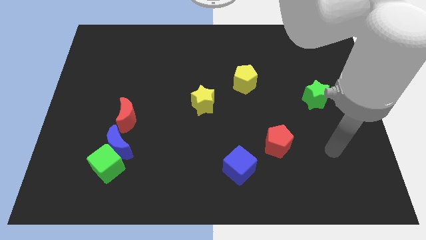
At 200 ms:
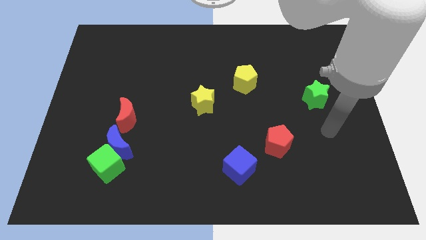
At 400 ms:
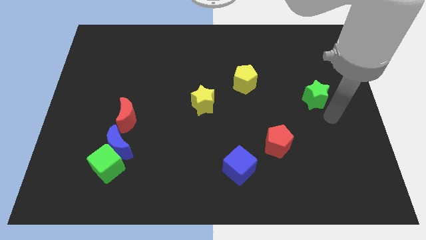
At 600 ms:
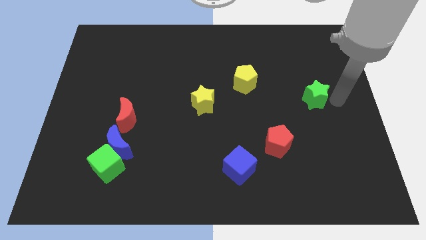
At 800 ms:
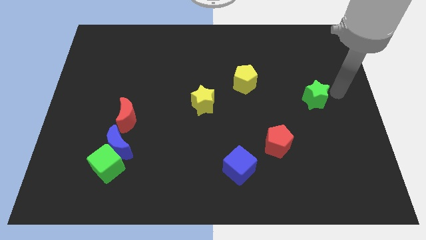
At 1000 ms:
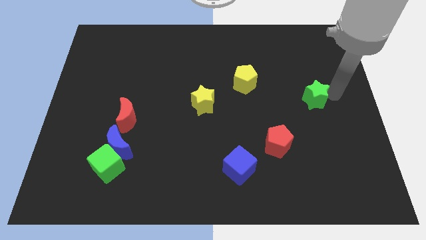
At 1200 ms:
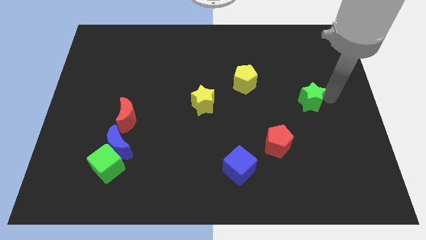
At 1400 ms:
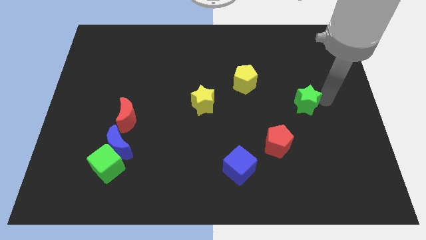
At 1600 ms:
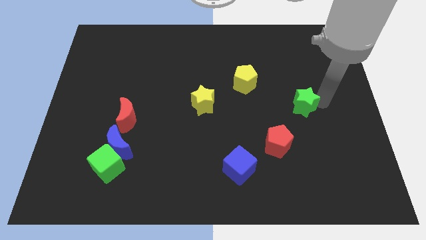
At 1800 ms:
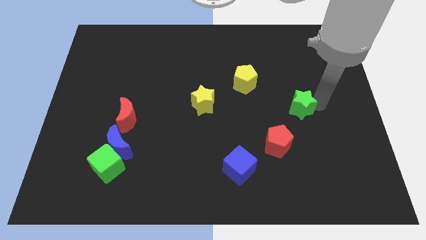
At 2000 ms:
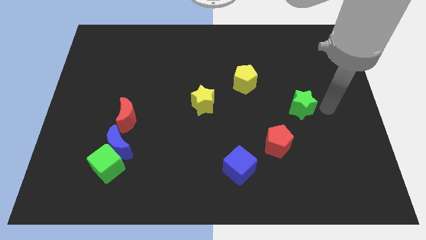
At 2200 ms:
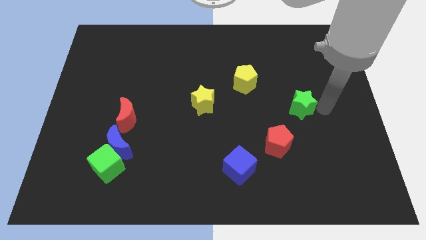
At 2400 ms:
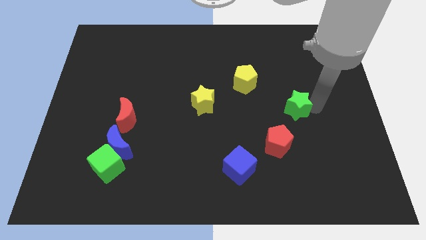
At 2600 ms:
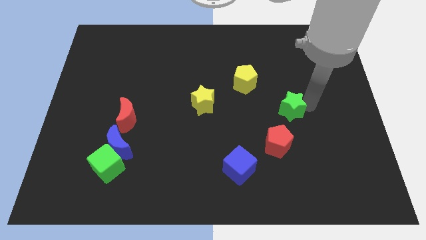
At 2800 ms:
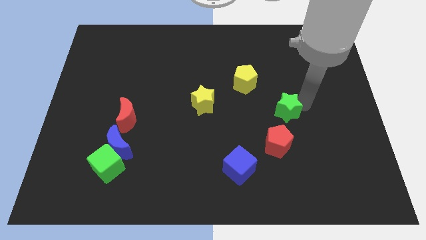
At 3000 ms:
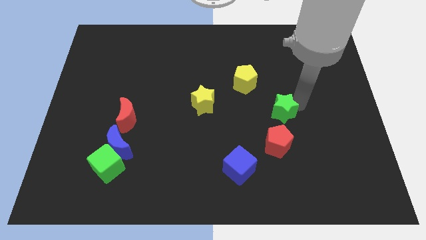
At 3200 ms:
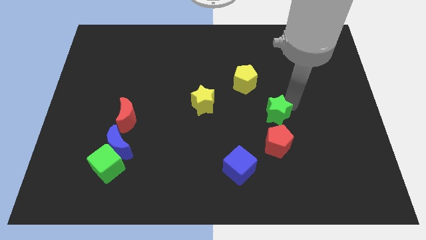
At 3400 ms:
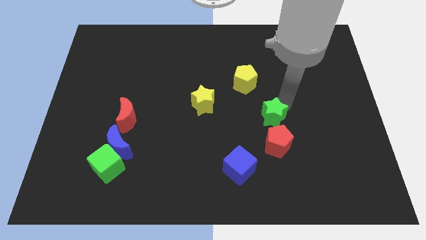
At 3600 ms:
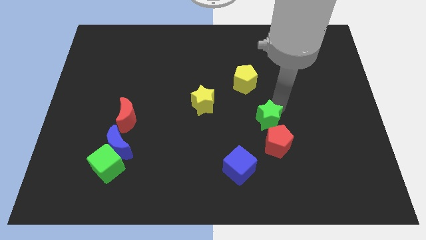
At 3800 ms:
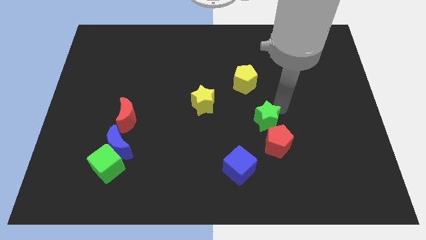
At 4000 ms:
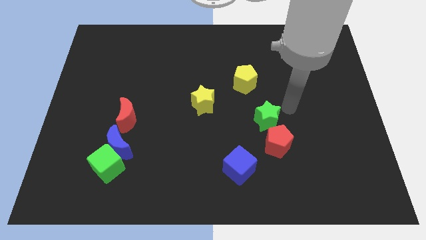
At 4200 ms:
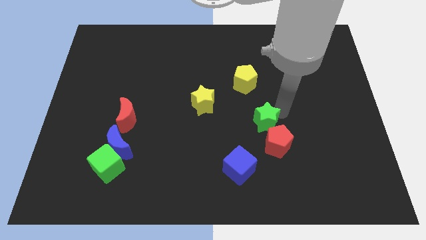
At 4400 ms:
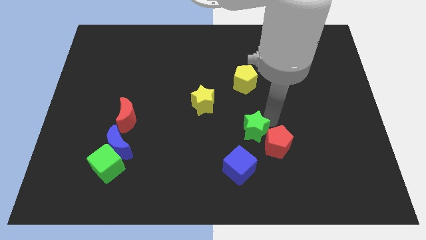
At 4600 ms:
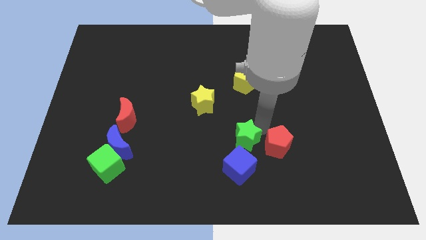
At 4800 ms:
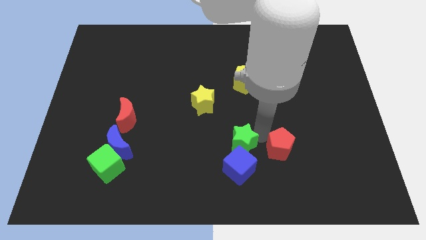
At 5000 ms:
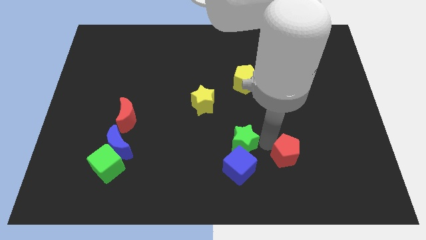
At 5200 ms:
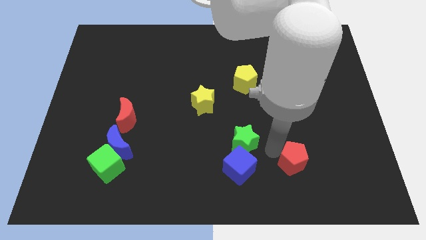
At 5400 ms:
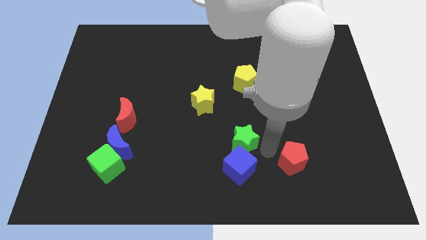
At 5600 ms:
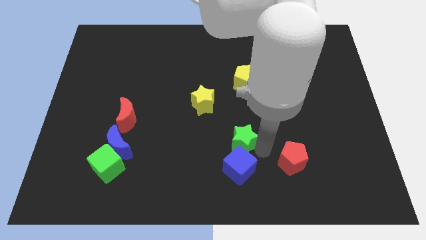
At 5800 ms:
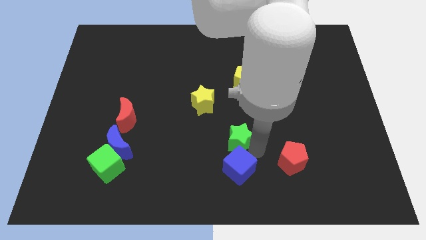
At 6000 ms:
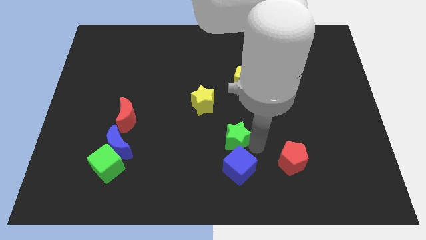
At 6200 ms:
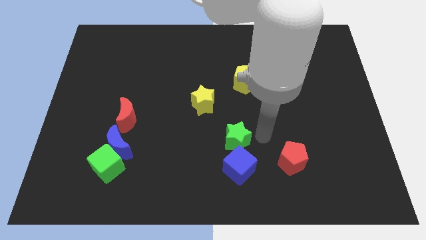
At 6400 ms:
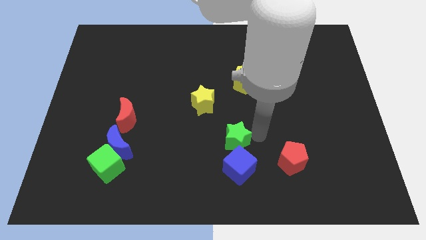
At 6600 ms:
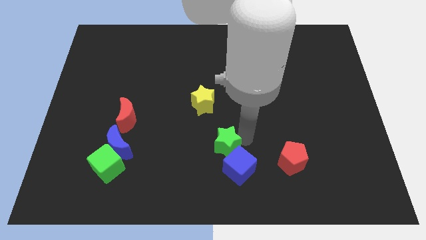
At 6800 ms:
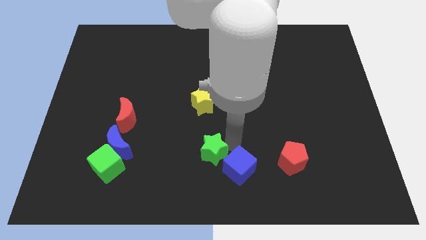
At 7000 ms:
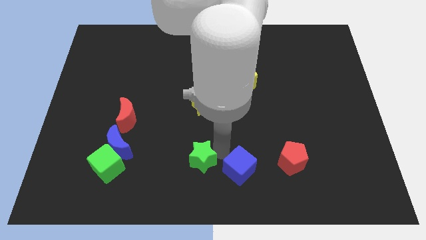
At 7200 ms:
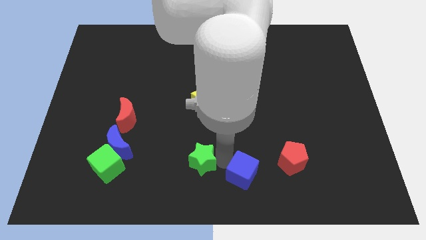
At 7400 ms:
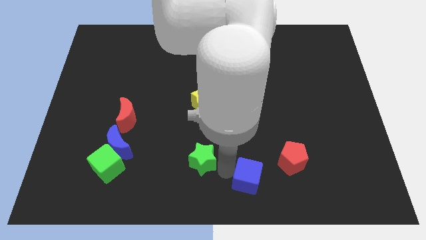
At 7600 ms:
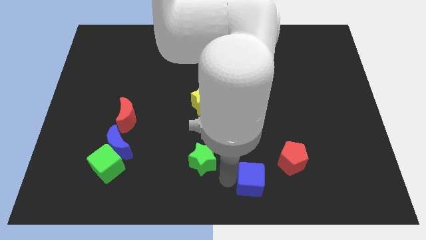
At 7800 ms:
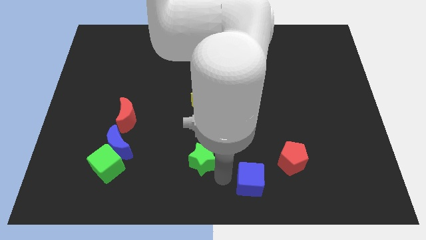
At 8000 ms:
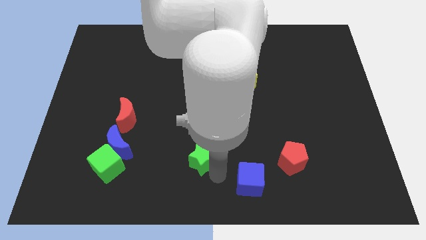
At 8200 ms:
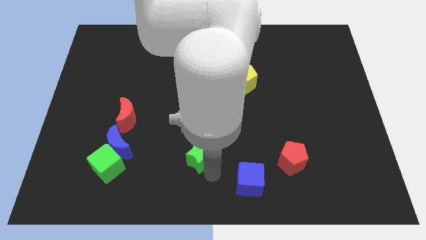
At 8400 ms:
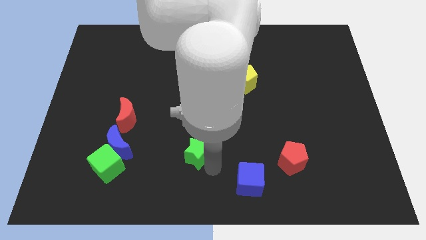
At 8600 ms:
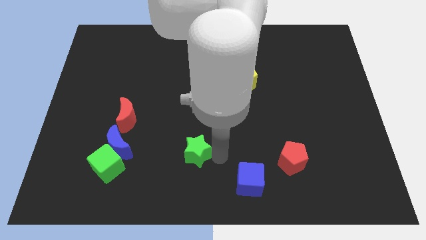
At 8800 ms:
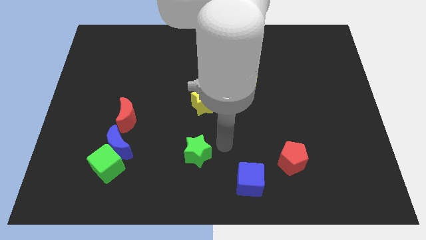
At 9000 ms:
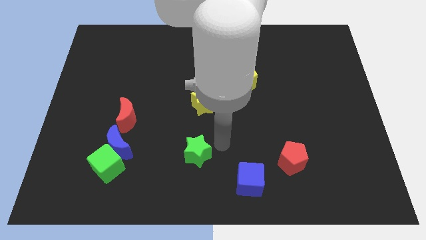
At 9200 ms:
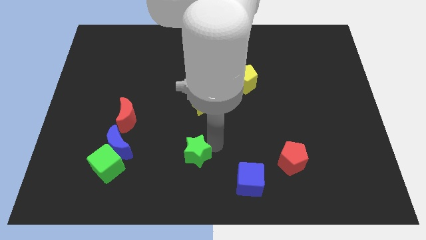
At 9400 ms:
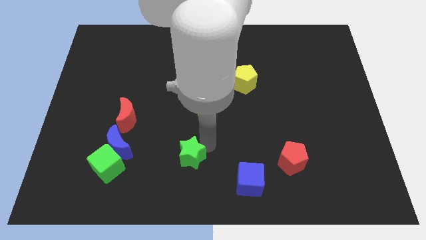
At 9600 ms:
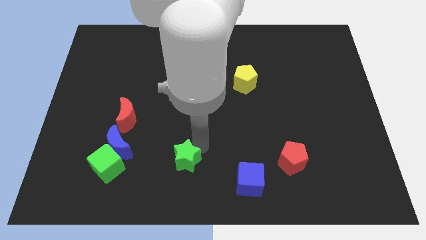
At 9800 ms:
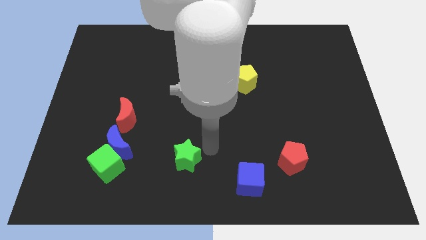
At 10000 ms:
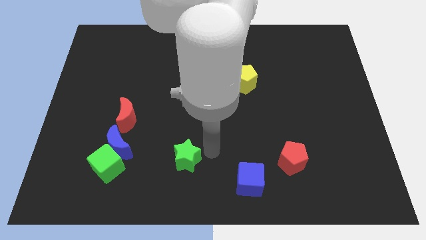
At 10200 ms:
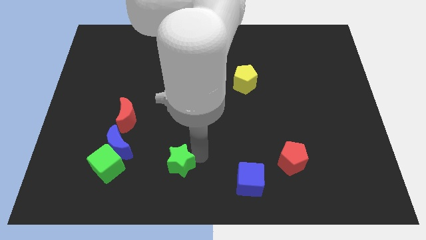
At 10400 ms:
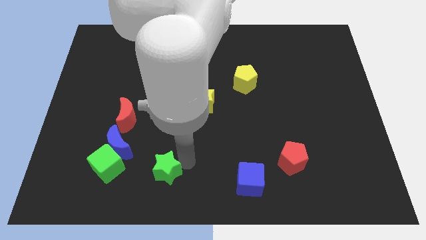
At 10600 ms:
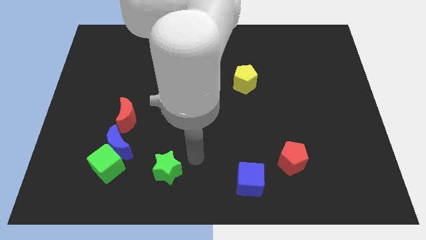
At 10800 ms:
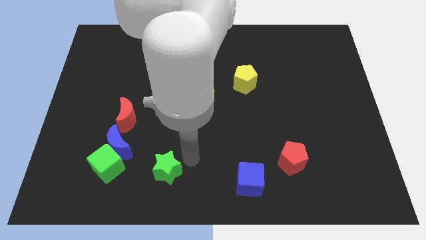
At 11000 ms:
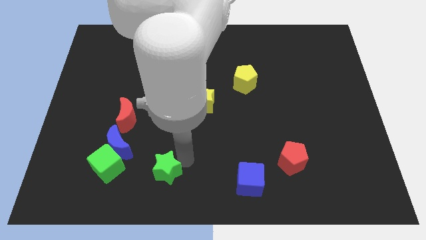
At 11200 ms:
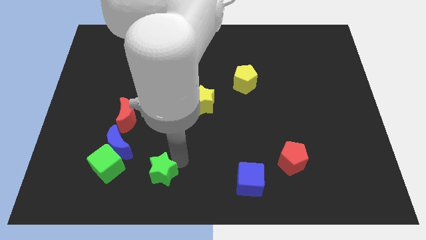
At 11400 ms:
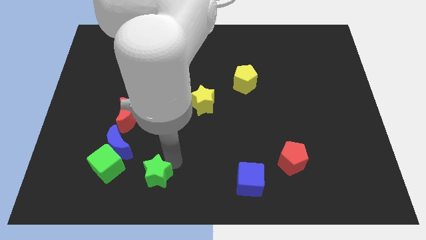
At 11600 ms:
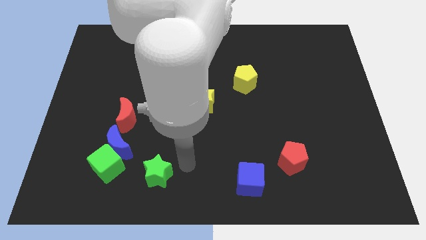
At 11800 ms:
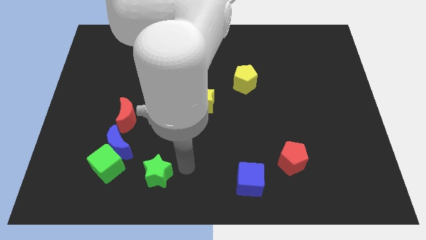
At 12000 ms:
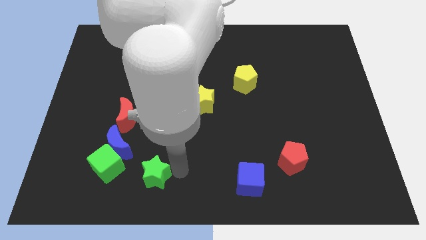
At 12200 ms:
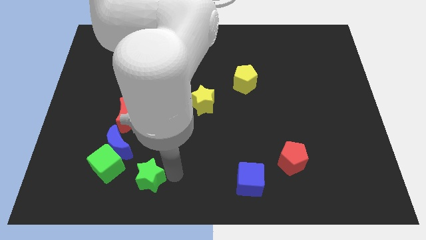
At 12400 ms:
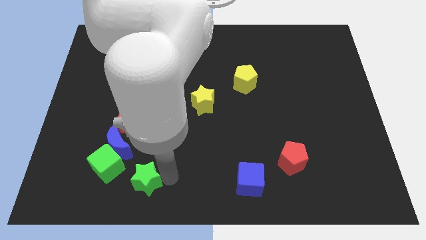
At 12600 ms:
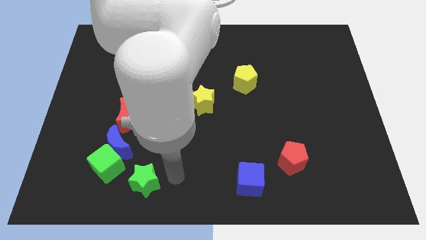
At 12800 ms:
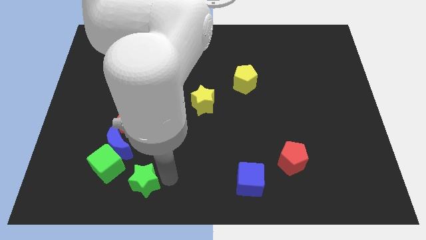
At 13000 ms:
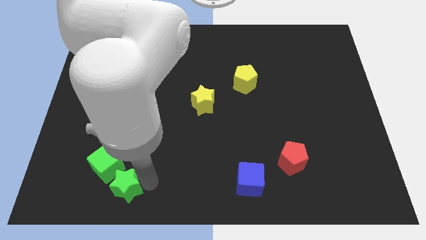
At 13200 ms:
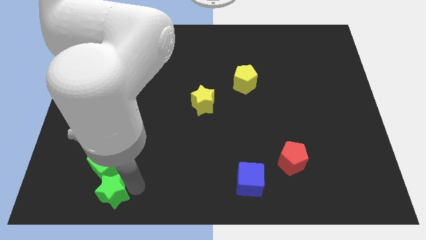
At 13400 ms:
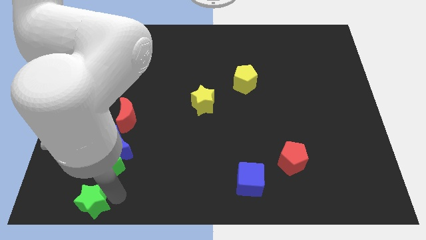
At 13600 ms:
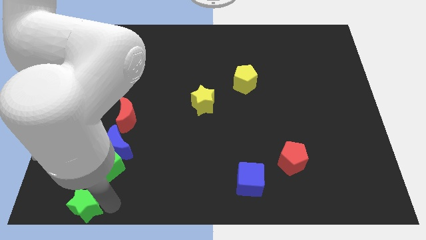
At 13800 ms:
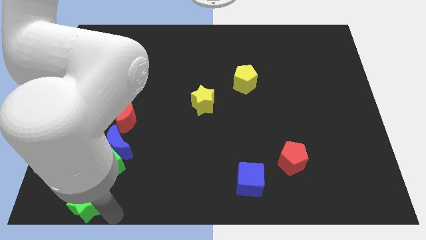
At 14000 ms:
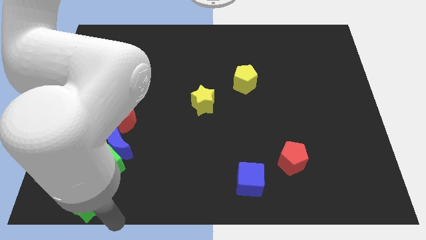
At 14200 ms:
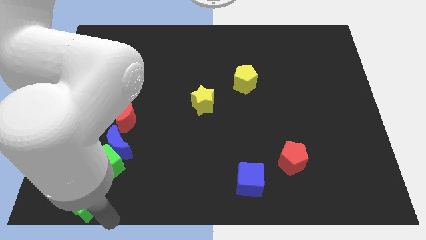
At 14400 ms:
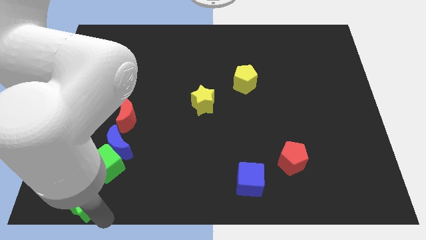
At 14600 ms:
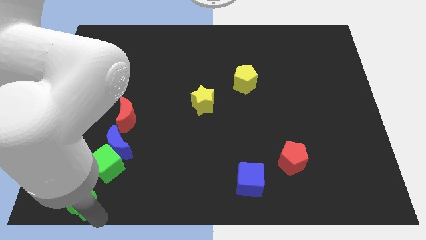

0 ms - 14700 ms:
slide the green star to the bottom left corner
